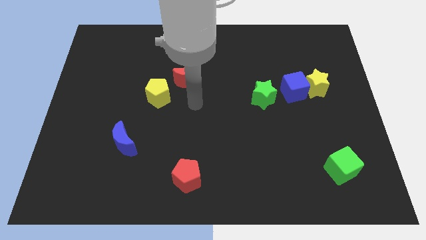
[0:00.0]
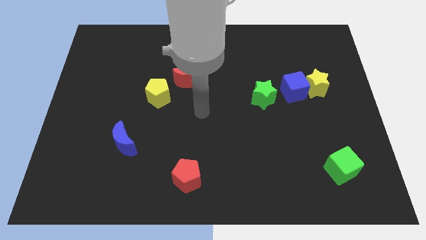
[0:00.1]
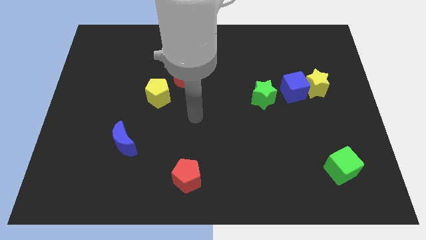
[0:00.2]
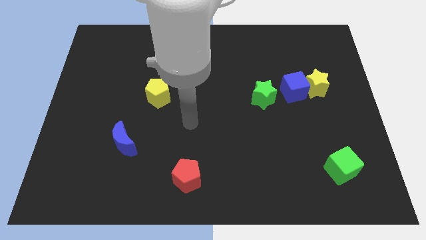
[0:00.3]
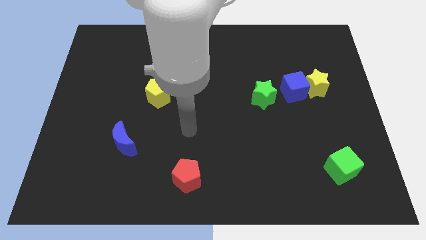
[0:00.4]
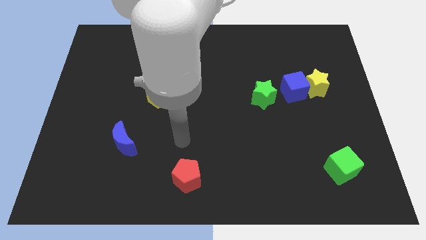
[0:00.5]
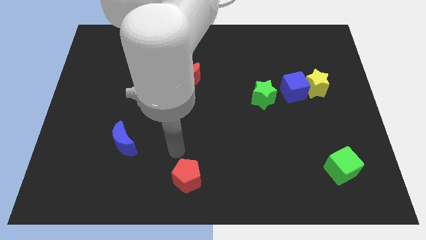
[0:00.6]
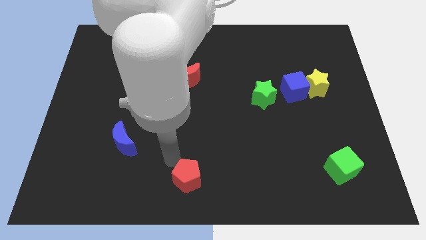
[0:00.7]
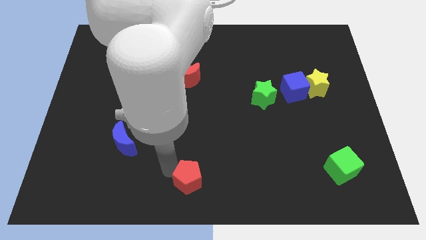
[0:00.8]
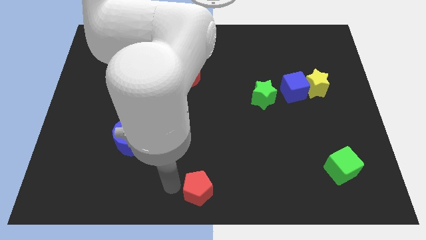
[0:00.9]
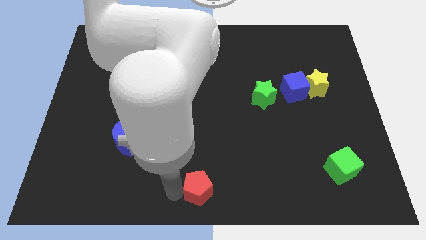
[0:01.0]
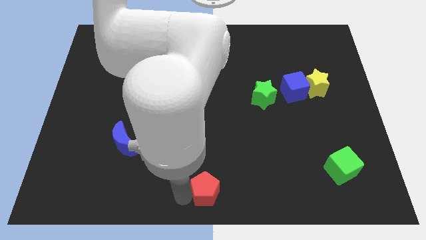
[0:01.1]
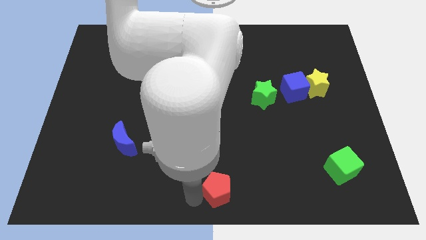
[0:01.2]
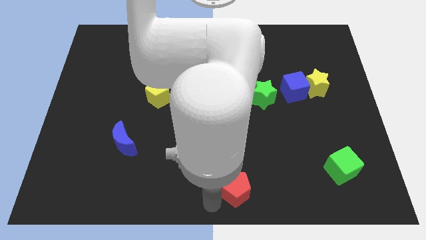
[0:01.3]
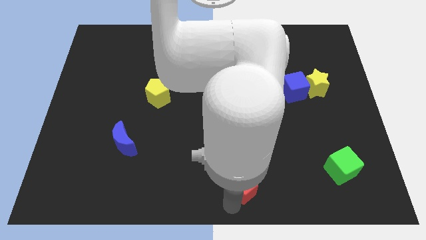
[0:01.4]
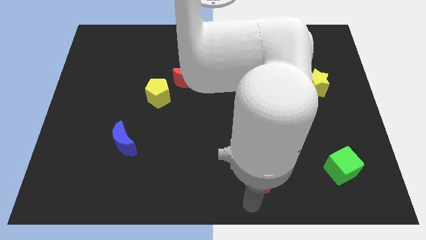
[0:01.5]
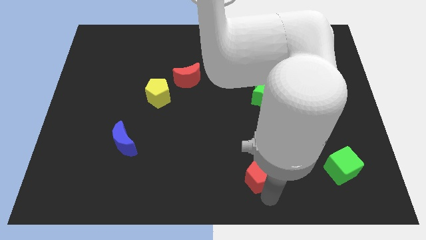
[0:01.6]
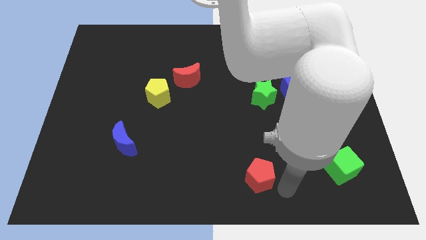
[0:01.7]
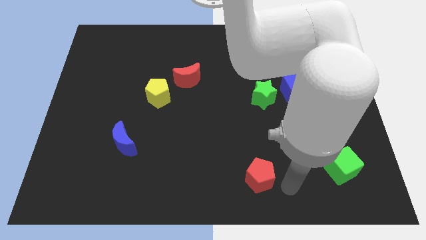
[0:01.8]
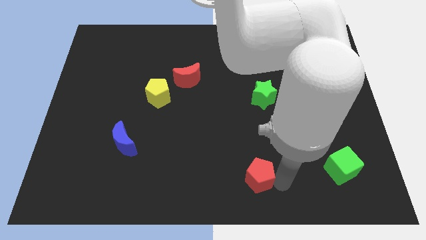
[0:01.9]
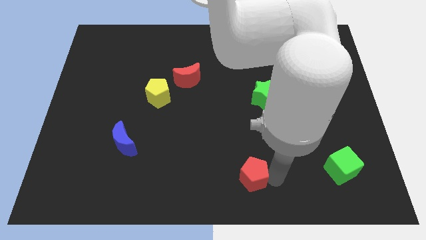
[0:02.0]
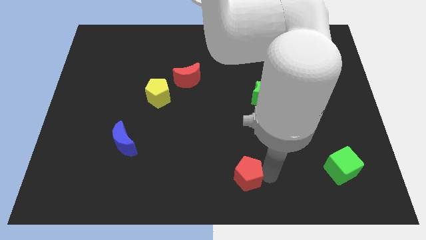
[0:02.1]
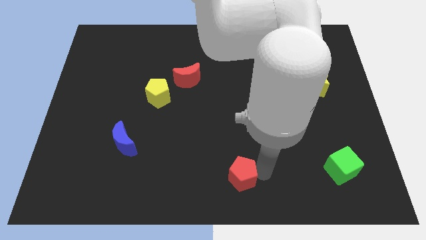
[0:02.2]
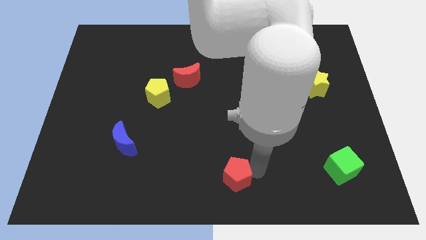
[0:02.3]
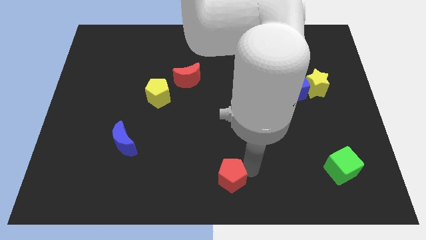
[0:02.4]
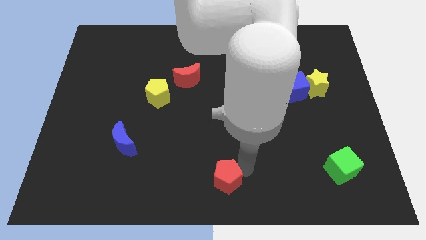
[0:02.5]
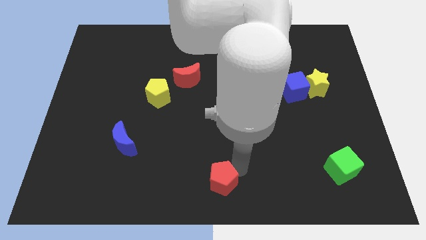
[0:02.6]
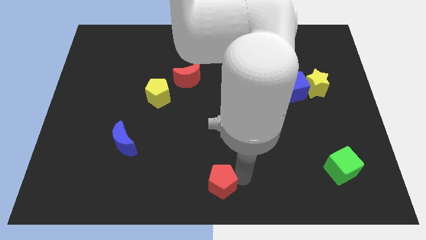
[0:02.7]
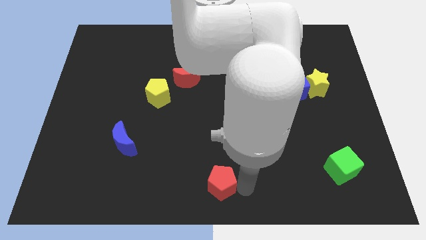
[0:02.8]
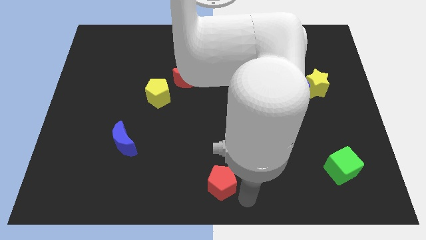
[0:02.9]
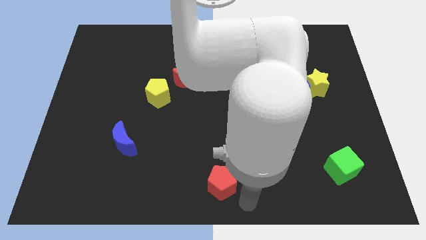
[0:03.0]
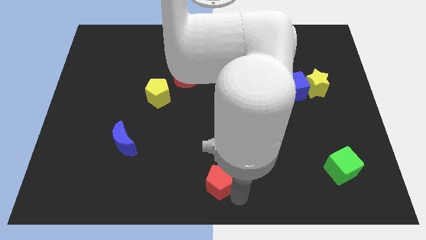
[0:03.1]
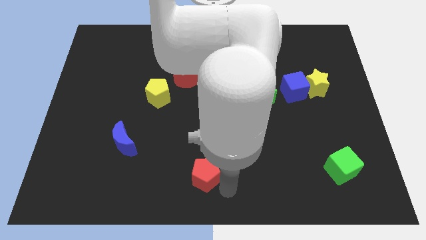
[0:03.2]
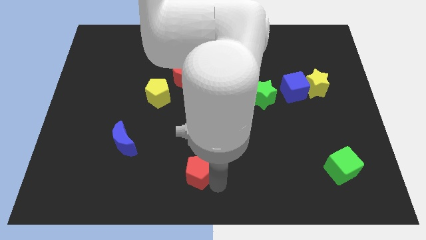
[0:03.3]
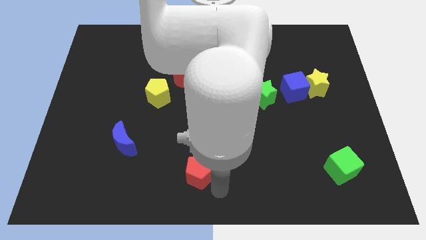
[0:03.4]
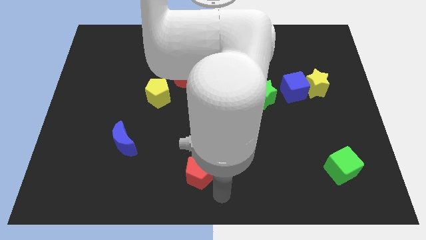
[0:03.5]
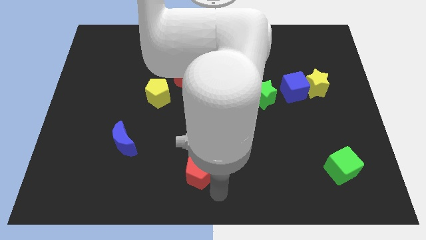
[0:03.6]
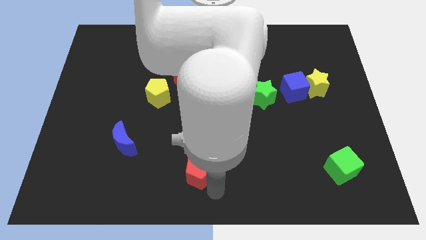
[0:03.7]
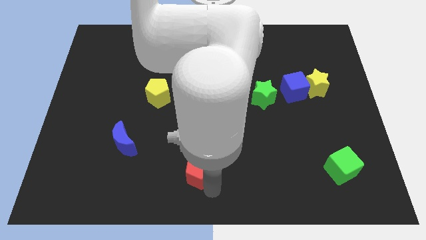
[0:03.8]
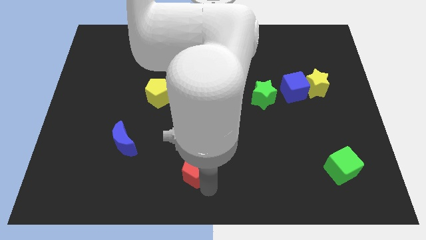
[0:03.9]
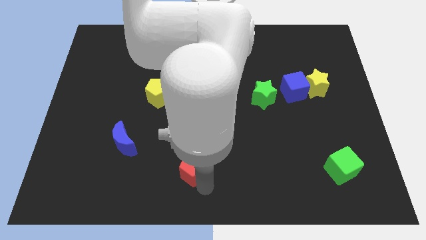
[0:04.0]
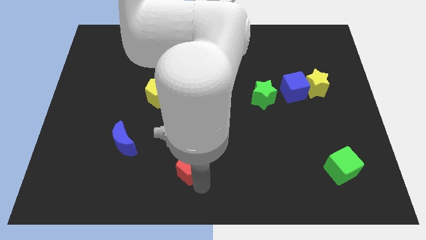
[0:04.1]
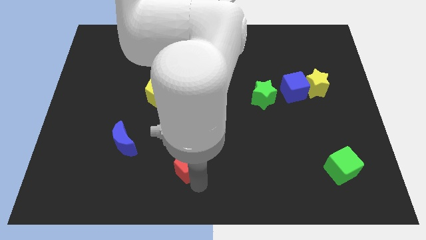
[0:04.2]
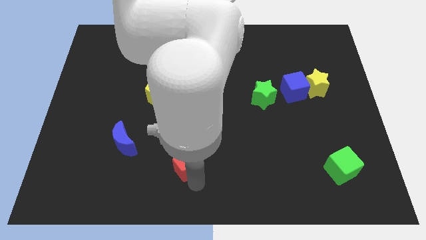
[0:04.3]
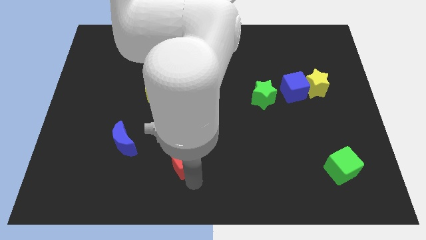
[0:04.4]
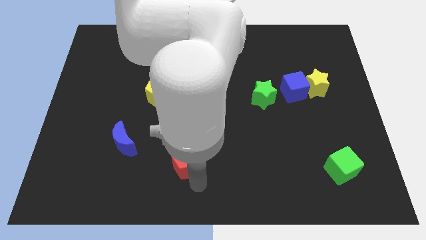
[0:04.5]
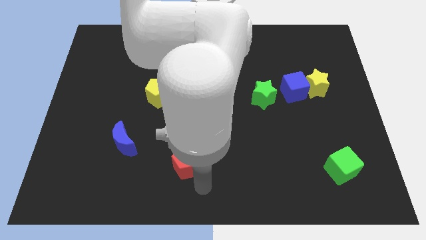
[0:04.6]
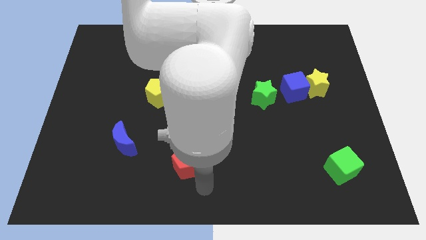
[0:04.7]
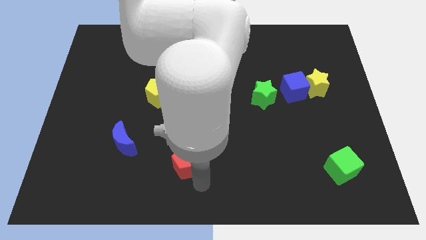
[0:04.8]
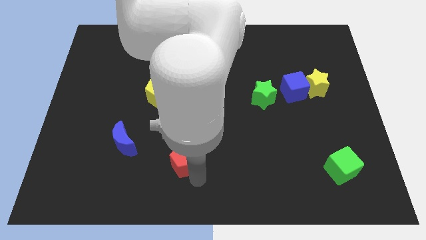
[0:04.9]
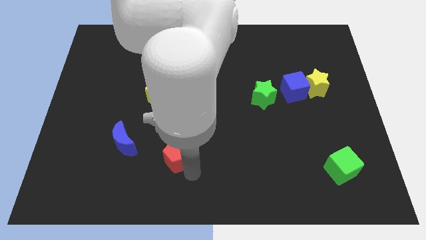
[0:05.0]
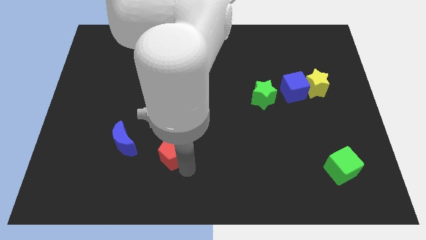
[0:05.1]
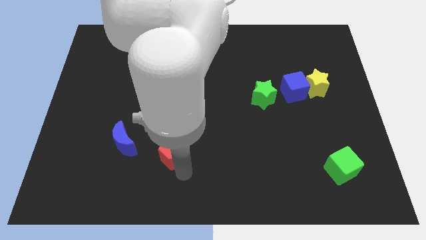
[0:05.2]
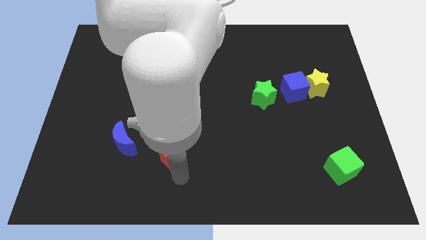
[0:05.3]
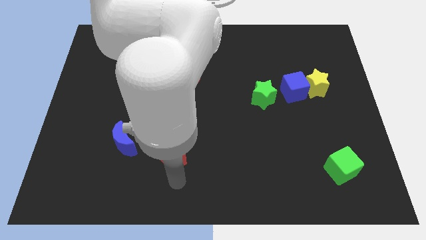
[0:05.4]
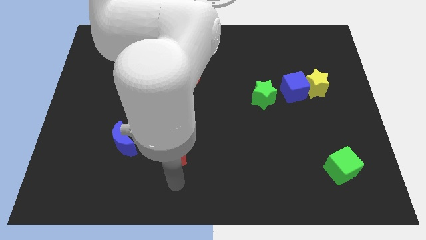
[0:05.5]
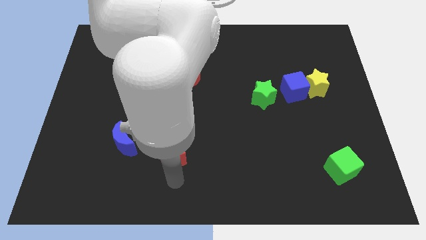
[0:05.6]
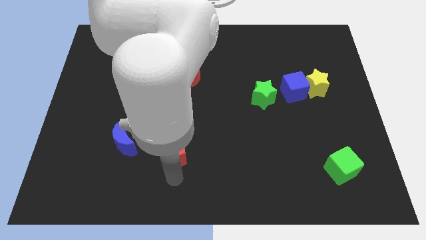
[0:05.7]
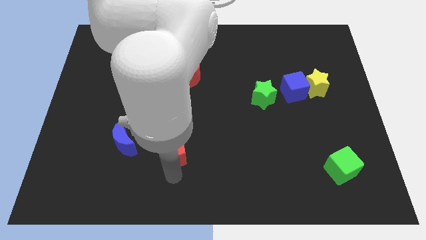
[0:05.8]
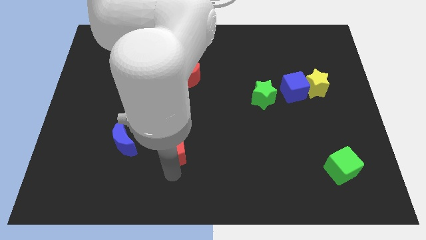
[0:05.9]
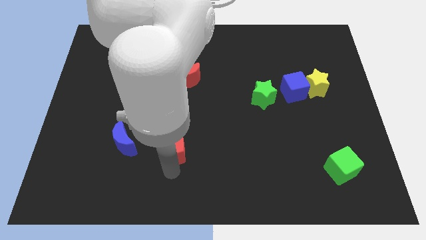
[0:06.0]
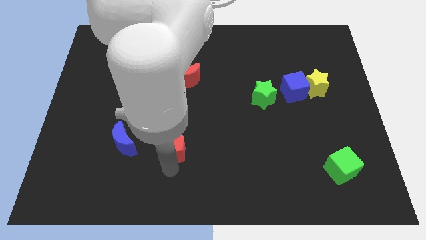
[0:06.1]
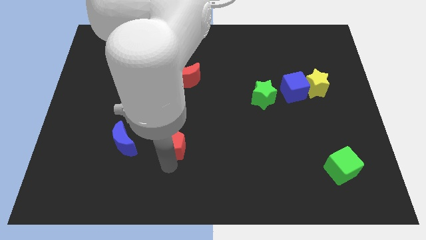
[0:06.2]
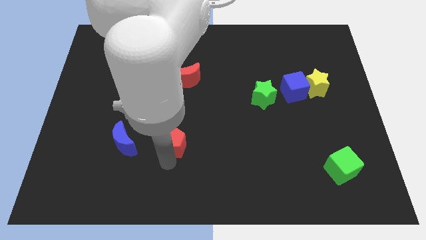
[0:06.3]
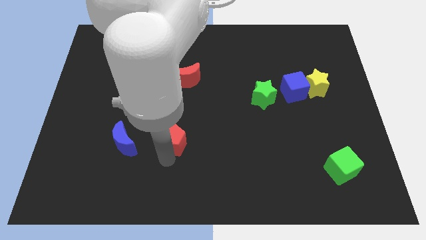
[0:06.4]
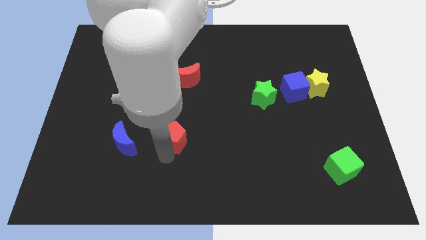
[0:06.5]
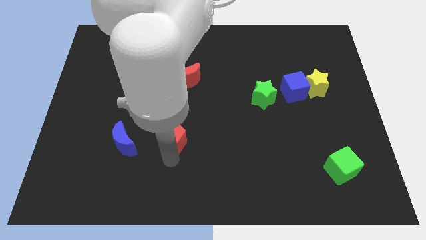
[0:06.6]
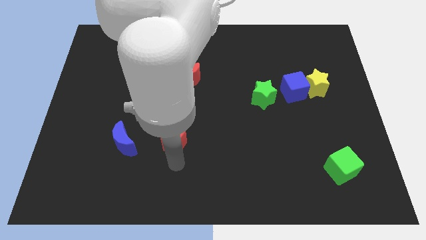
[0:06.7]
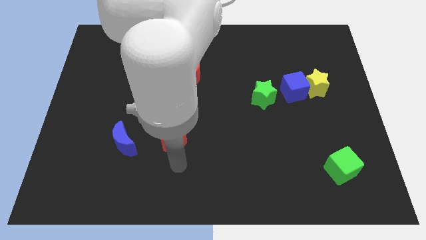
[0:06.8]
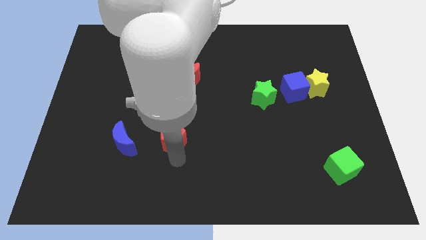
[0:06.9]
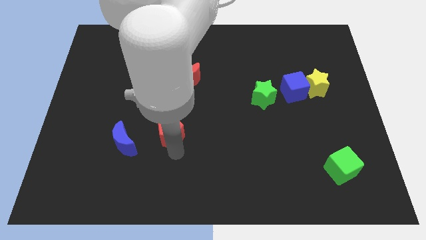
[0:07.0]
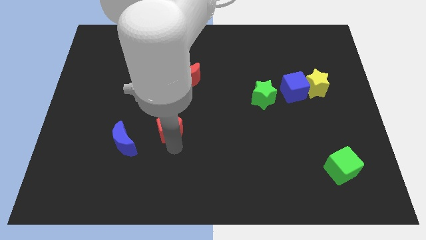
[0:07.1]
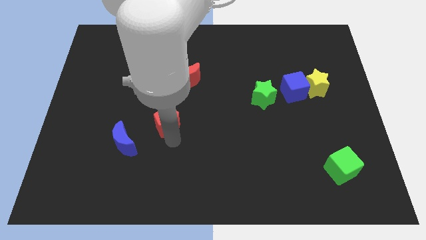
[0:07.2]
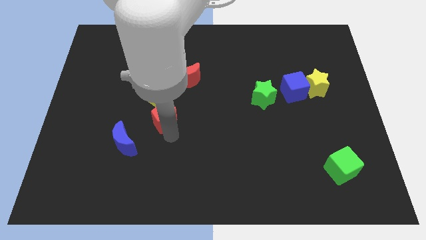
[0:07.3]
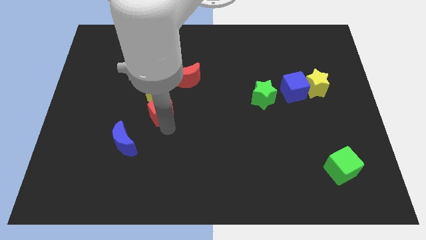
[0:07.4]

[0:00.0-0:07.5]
move the red pentagon towards the yellow pentagon
